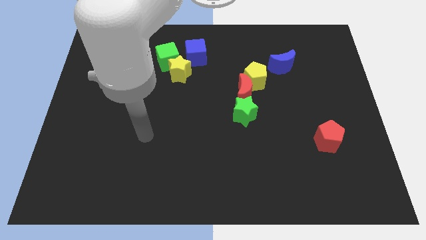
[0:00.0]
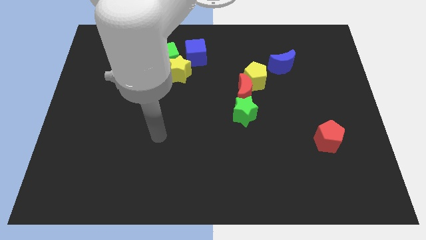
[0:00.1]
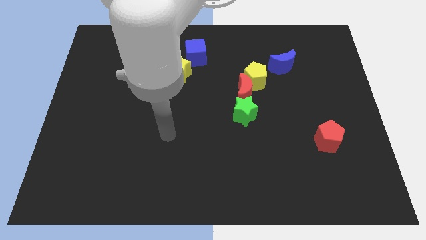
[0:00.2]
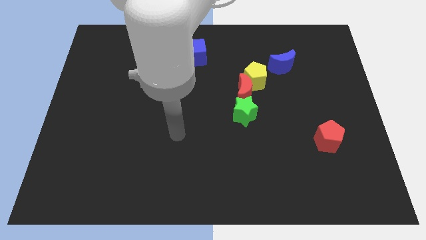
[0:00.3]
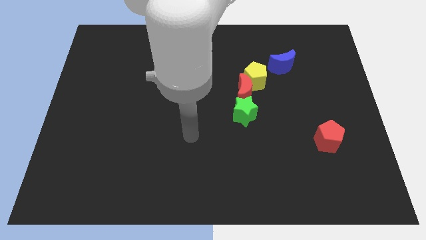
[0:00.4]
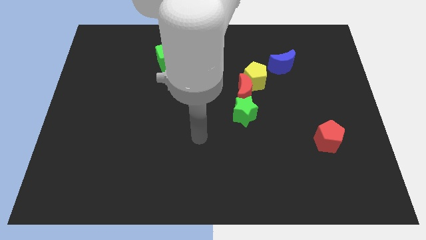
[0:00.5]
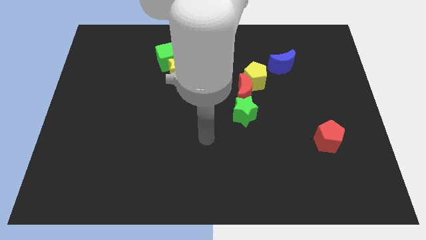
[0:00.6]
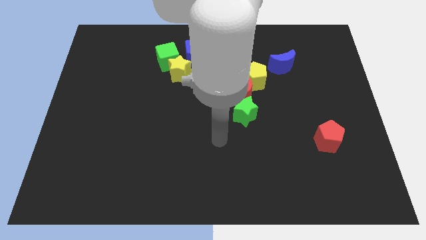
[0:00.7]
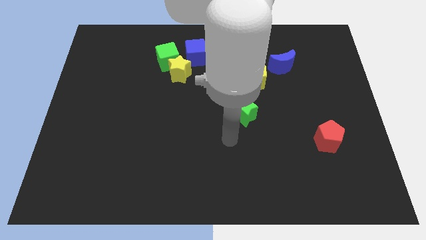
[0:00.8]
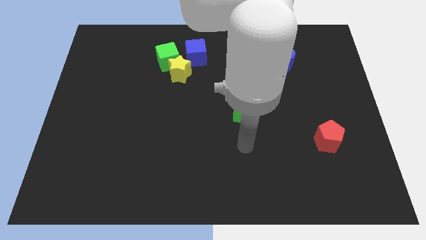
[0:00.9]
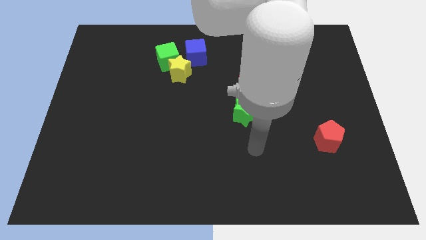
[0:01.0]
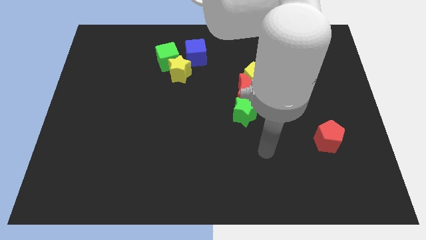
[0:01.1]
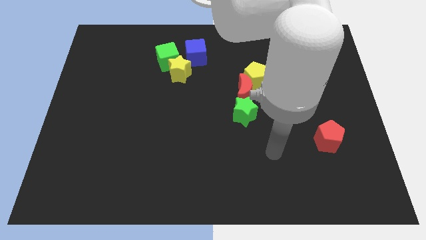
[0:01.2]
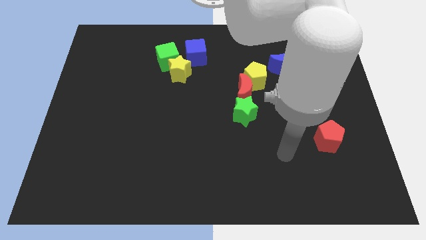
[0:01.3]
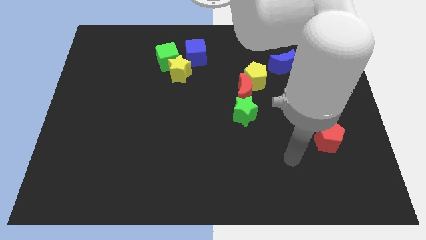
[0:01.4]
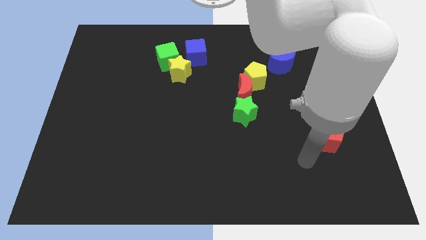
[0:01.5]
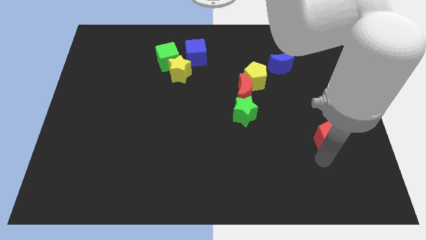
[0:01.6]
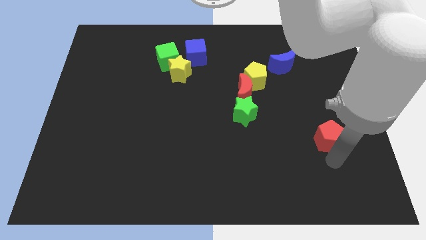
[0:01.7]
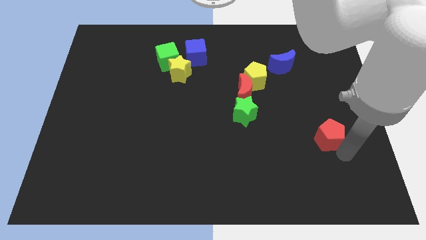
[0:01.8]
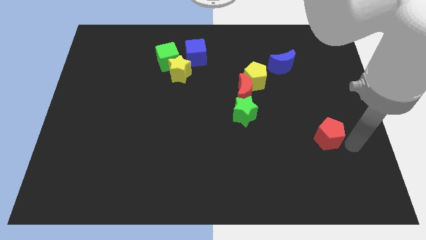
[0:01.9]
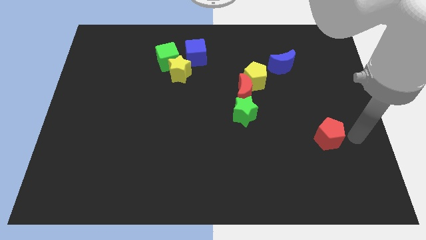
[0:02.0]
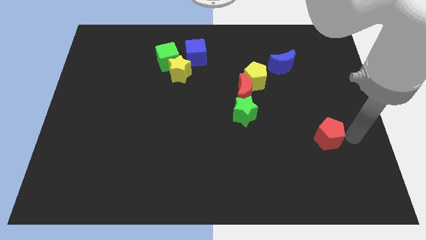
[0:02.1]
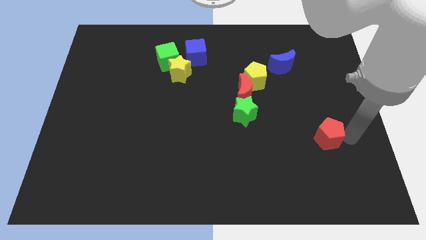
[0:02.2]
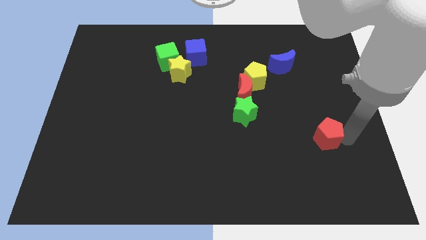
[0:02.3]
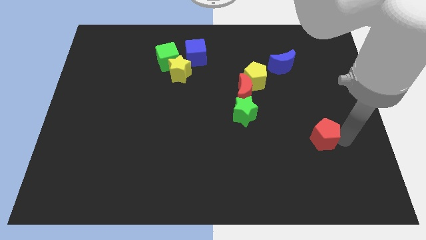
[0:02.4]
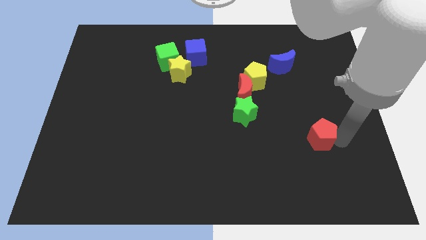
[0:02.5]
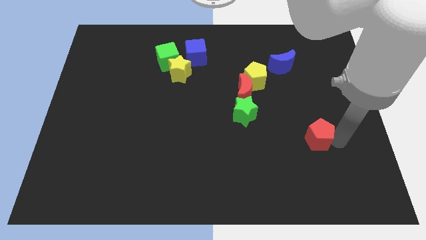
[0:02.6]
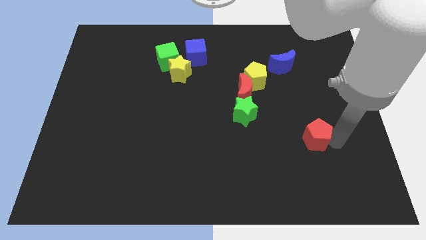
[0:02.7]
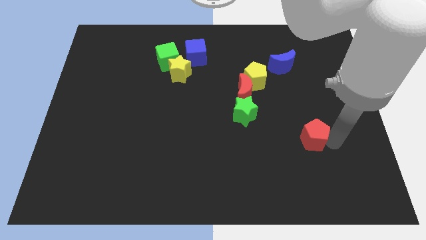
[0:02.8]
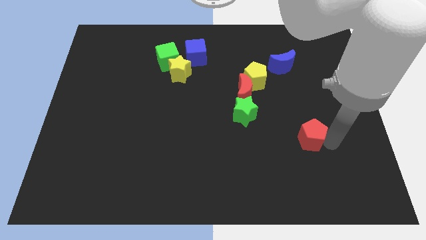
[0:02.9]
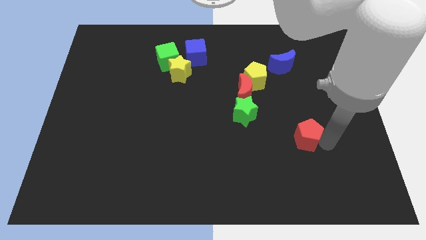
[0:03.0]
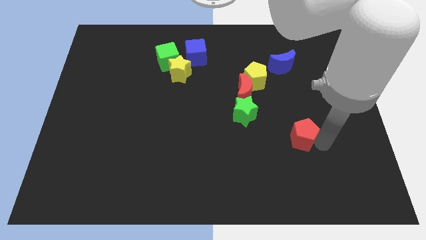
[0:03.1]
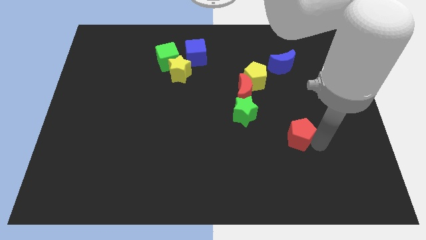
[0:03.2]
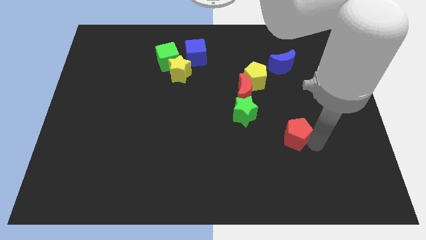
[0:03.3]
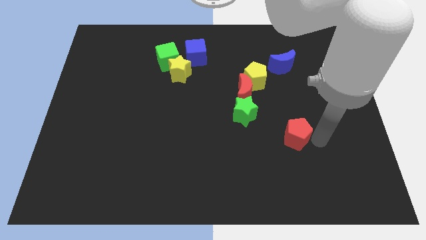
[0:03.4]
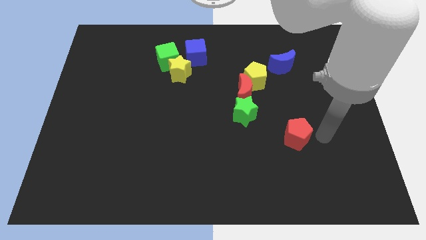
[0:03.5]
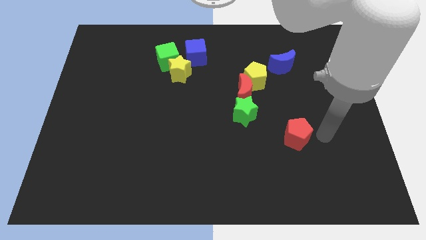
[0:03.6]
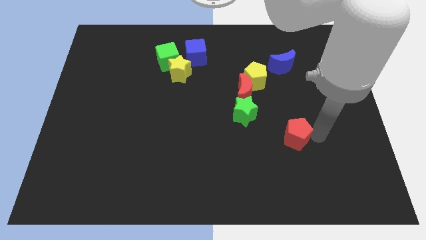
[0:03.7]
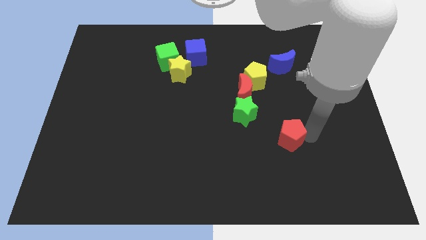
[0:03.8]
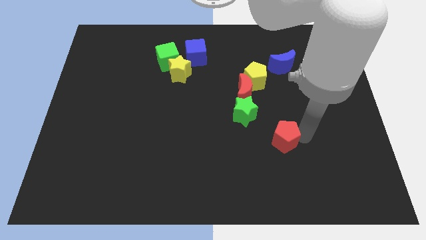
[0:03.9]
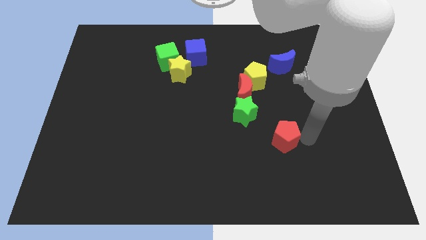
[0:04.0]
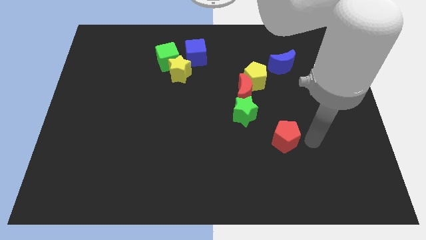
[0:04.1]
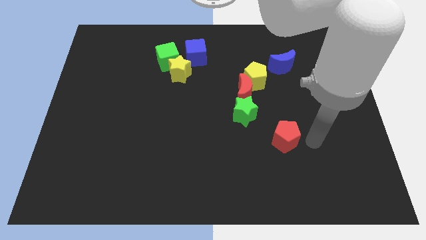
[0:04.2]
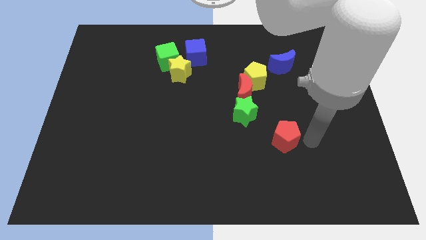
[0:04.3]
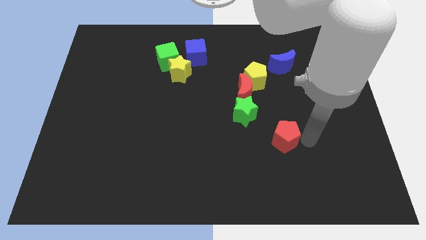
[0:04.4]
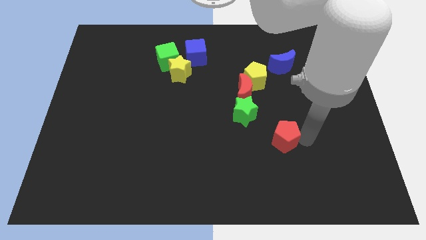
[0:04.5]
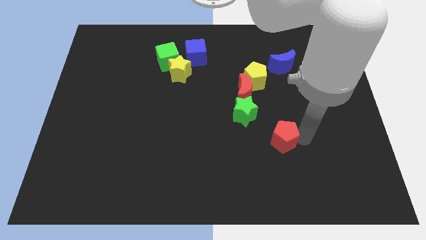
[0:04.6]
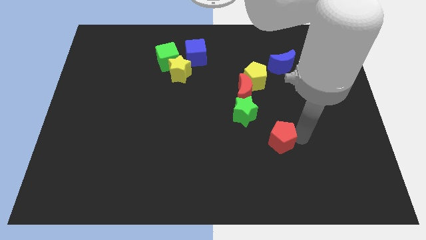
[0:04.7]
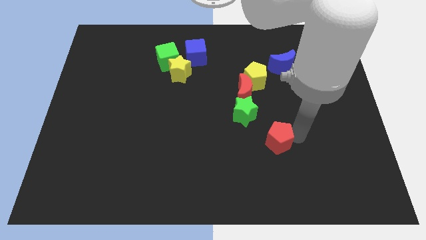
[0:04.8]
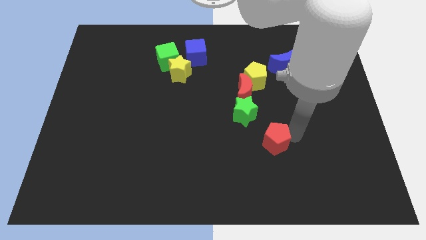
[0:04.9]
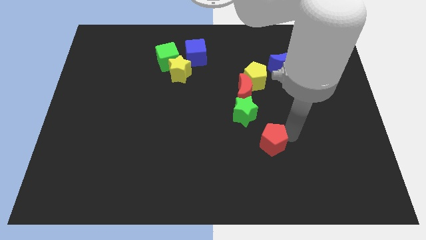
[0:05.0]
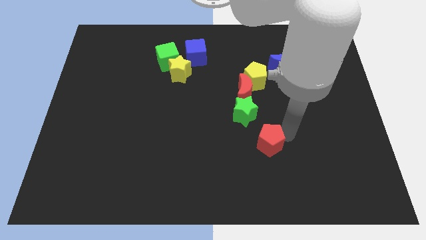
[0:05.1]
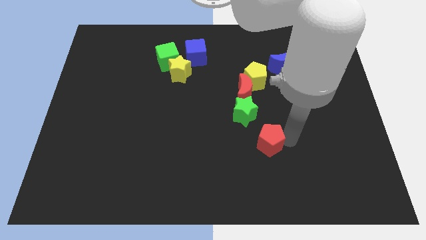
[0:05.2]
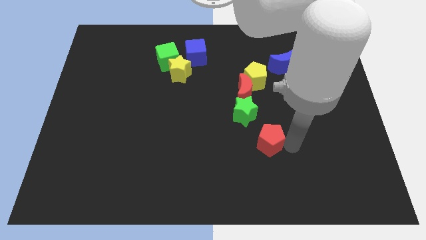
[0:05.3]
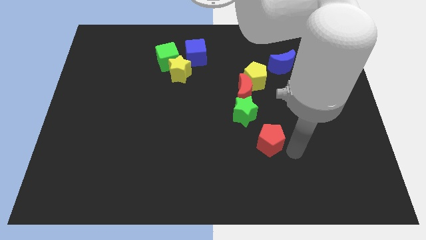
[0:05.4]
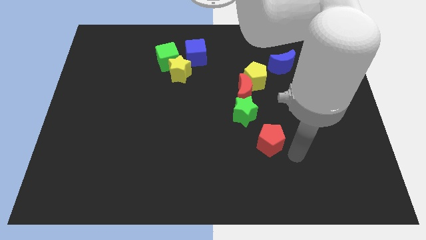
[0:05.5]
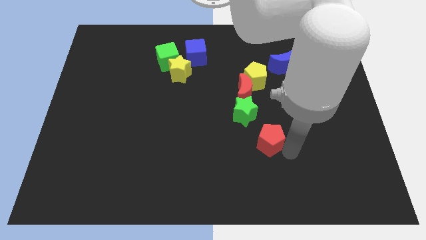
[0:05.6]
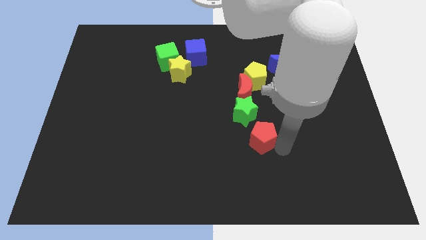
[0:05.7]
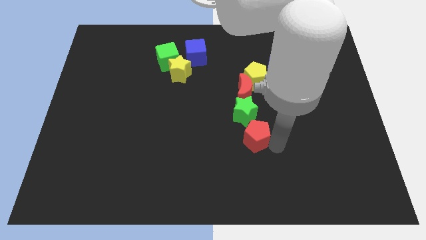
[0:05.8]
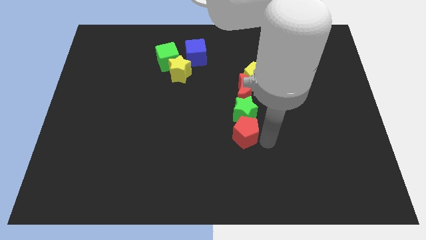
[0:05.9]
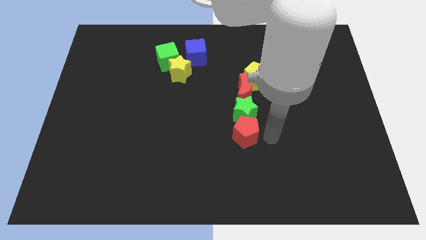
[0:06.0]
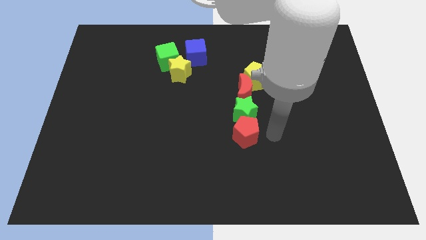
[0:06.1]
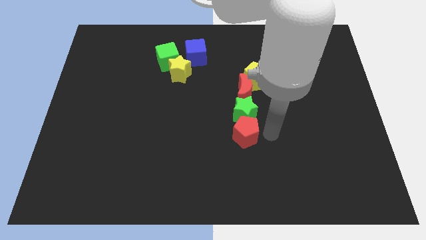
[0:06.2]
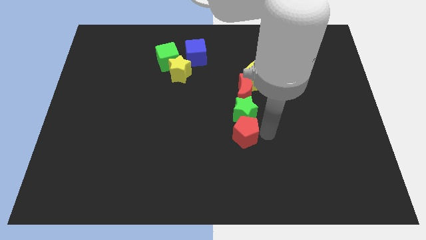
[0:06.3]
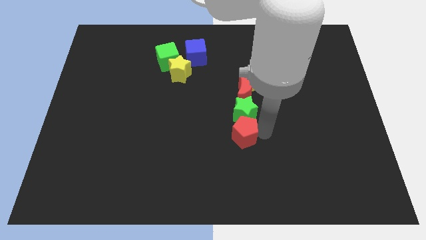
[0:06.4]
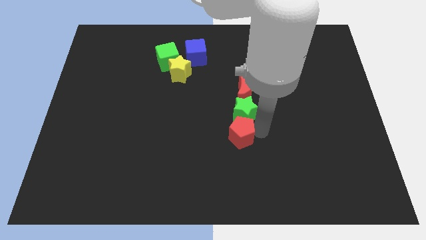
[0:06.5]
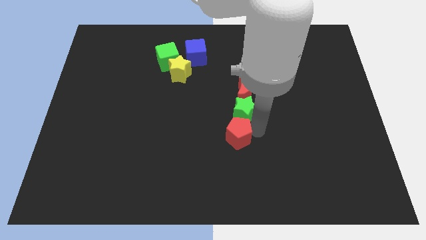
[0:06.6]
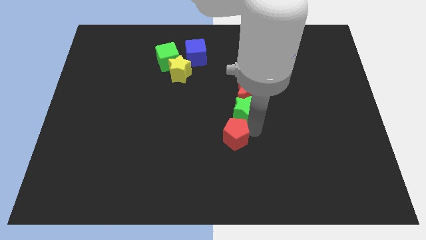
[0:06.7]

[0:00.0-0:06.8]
push the red pentagon left

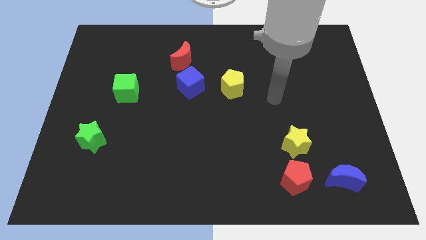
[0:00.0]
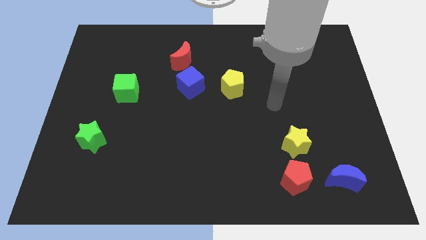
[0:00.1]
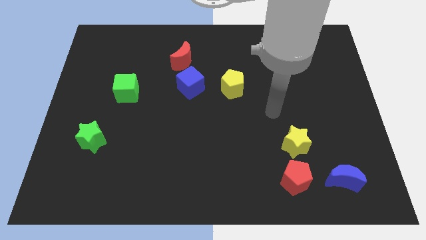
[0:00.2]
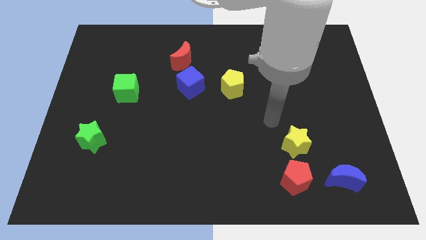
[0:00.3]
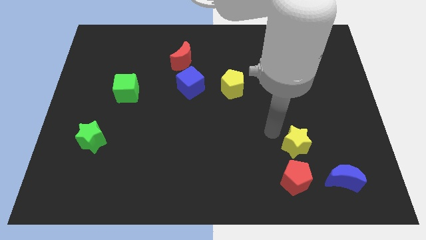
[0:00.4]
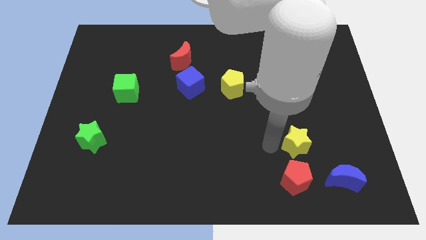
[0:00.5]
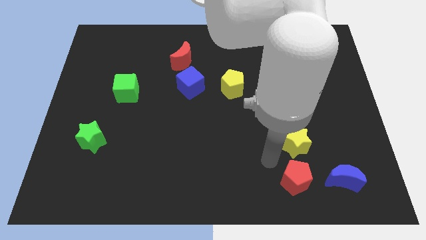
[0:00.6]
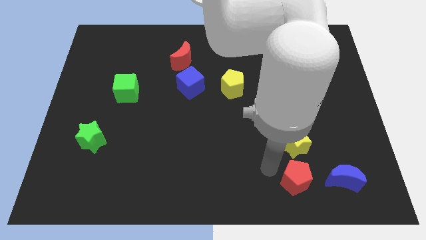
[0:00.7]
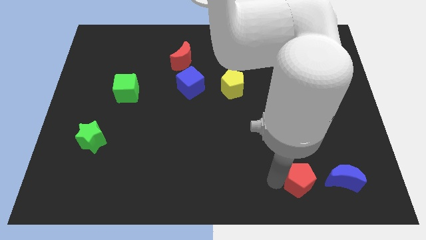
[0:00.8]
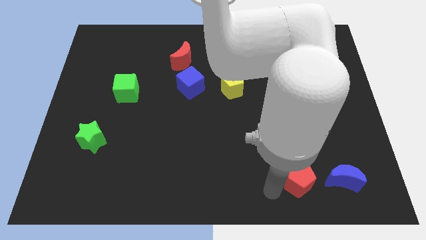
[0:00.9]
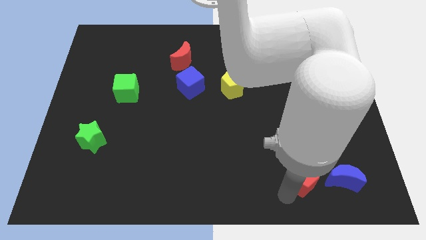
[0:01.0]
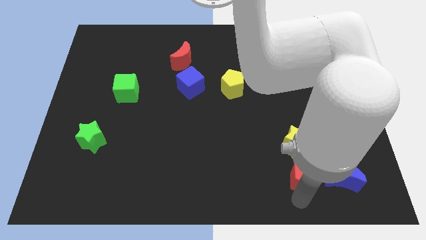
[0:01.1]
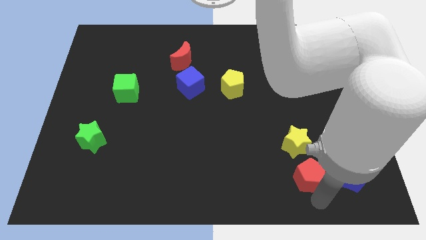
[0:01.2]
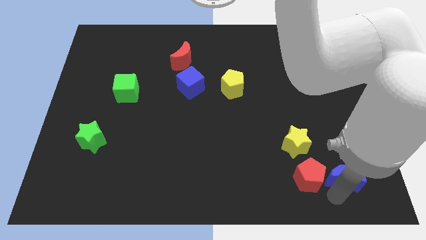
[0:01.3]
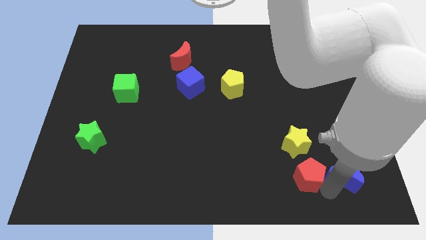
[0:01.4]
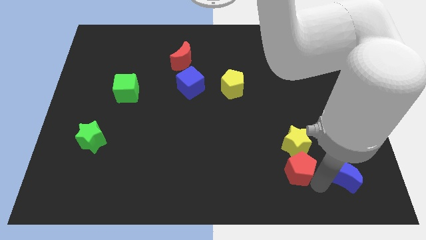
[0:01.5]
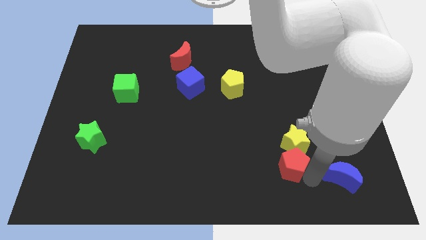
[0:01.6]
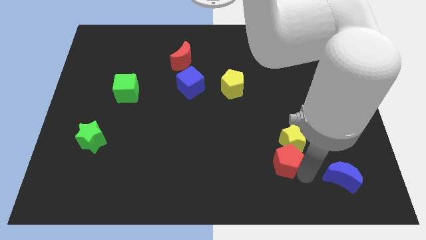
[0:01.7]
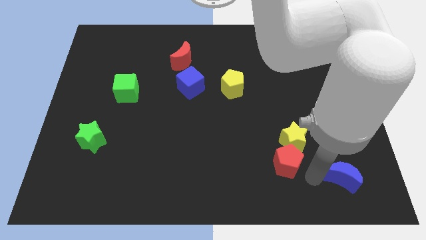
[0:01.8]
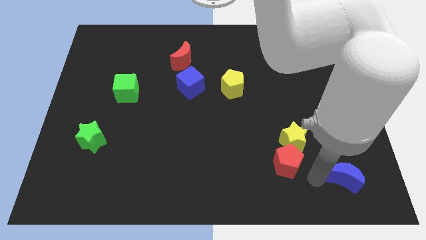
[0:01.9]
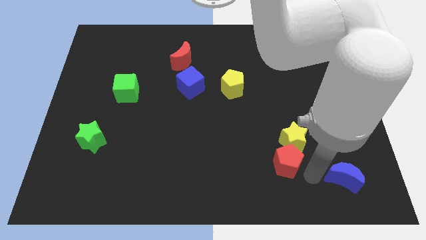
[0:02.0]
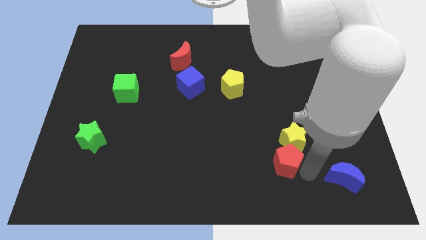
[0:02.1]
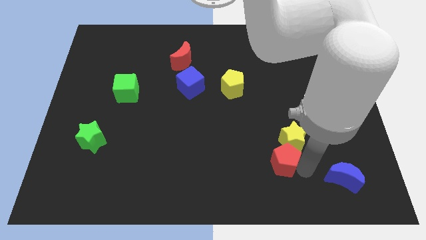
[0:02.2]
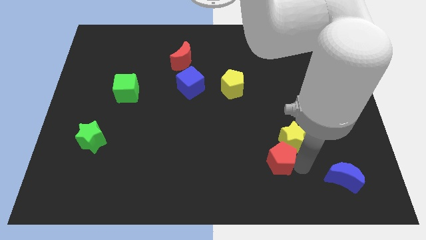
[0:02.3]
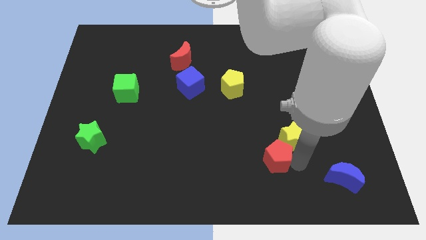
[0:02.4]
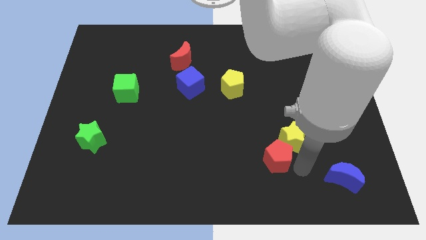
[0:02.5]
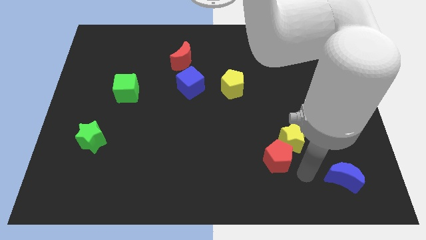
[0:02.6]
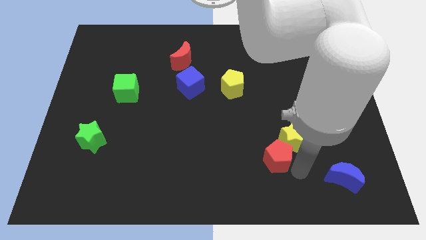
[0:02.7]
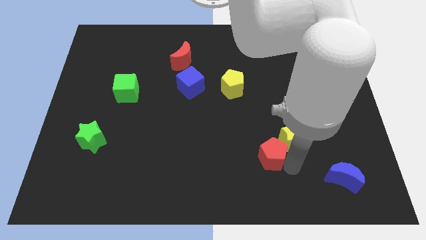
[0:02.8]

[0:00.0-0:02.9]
push the red pentagon a little bit upwards and then to the left
